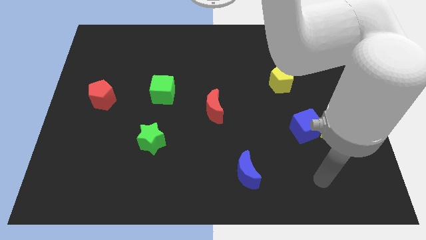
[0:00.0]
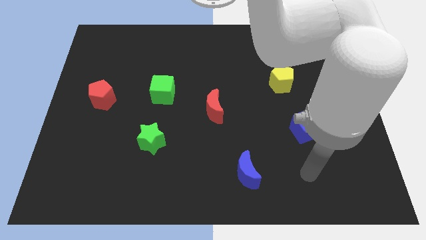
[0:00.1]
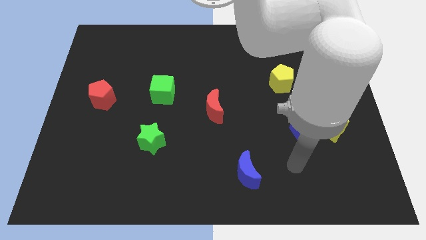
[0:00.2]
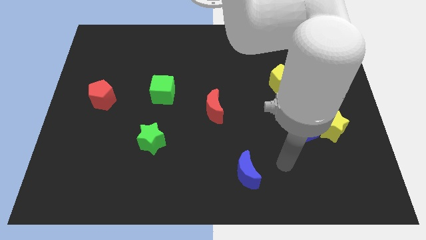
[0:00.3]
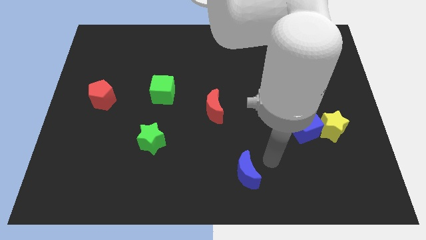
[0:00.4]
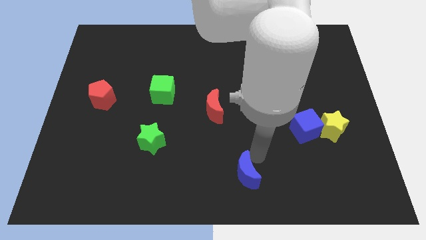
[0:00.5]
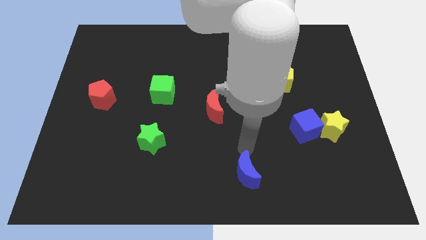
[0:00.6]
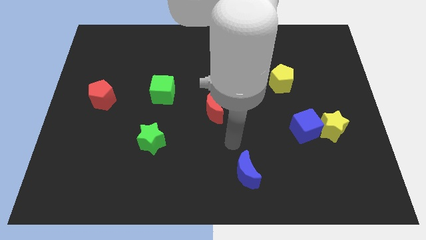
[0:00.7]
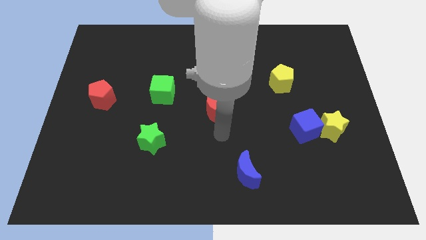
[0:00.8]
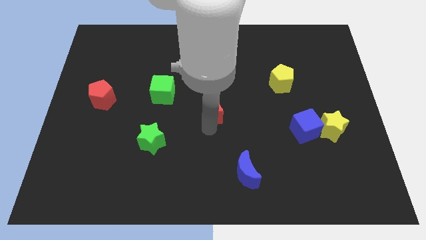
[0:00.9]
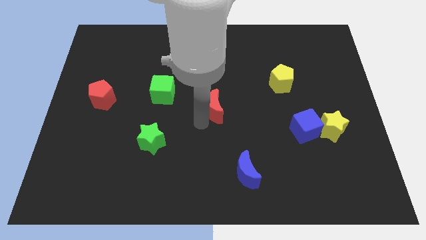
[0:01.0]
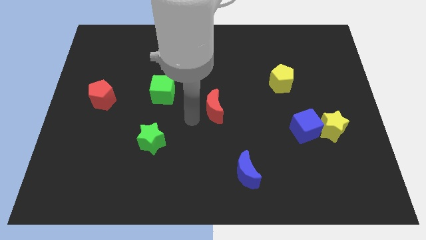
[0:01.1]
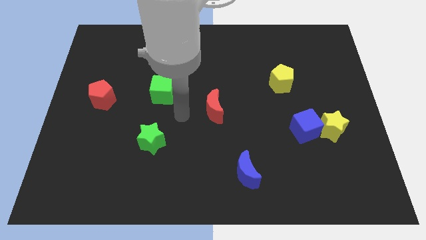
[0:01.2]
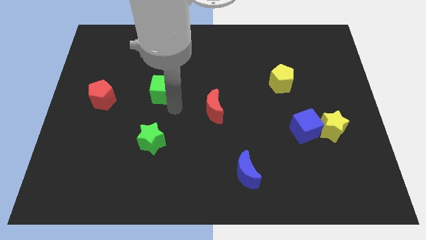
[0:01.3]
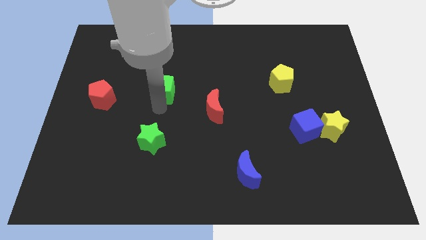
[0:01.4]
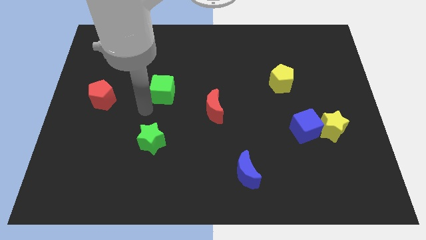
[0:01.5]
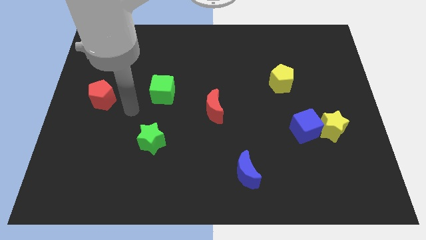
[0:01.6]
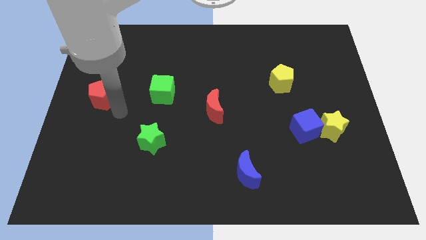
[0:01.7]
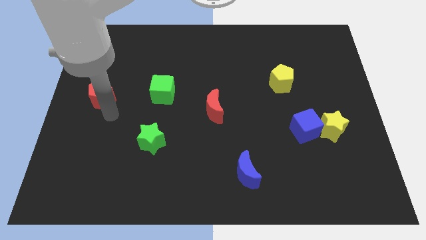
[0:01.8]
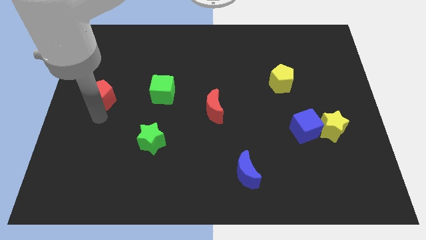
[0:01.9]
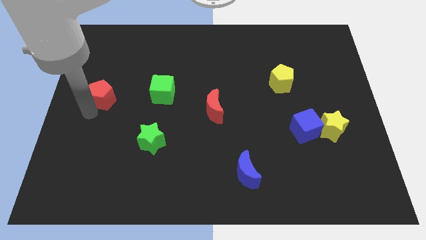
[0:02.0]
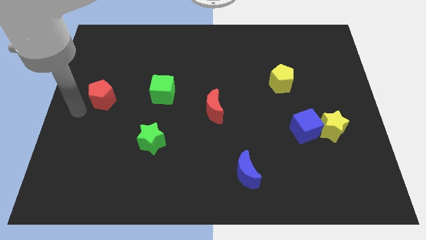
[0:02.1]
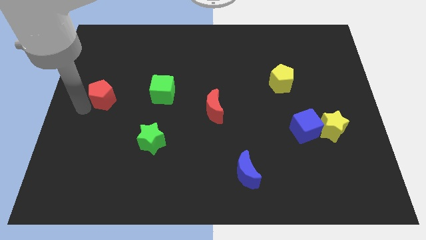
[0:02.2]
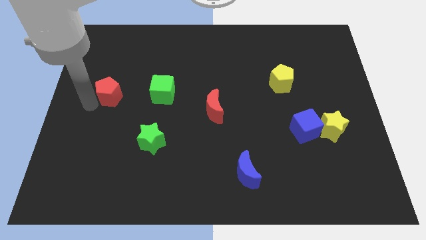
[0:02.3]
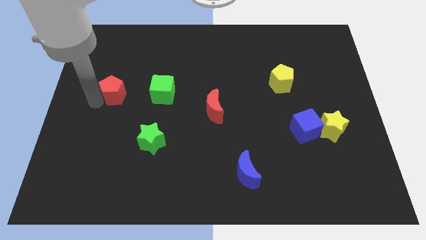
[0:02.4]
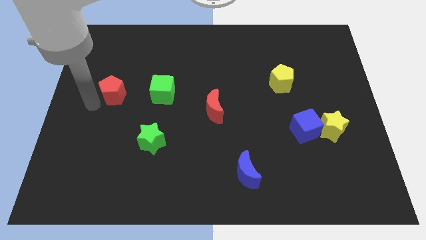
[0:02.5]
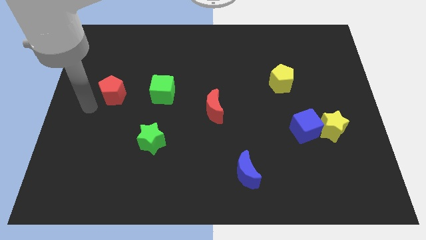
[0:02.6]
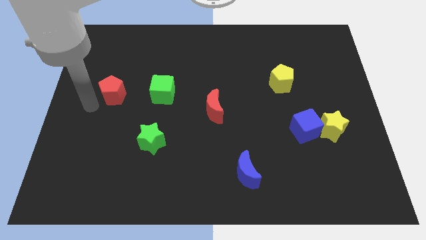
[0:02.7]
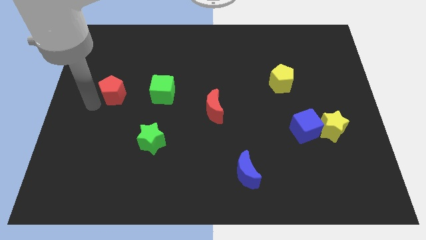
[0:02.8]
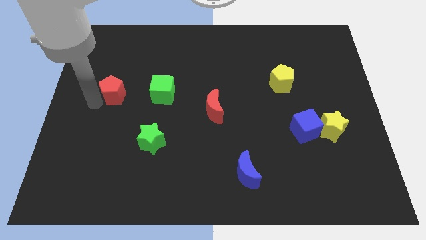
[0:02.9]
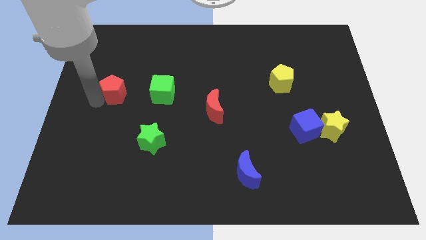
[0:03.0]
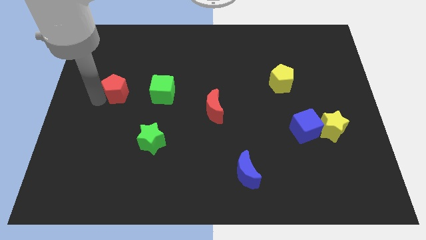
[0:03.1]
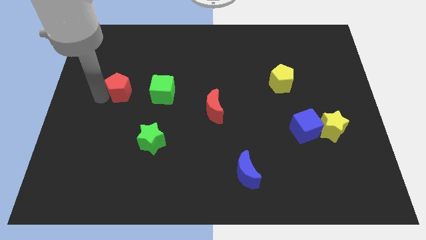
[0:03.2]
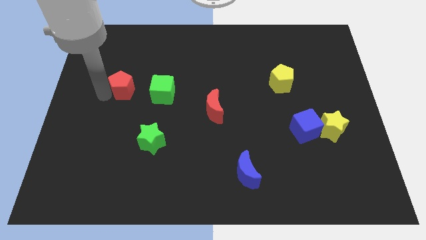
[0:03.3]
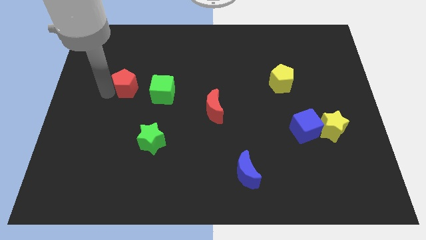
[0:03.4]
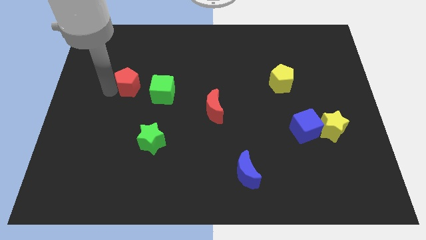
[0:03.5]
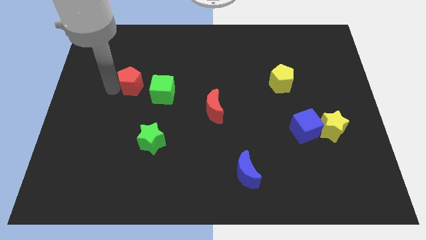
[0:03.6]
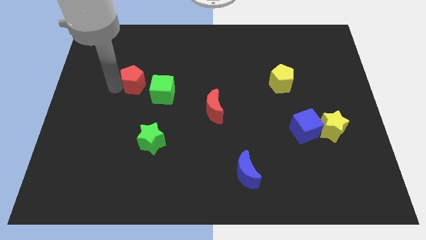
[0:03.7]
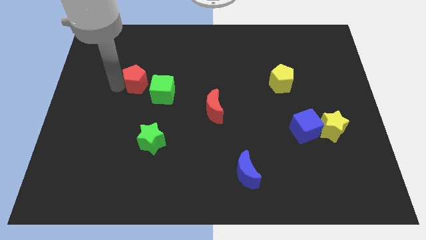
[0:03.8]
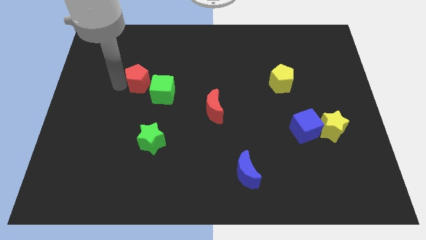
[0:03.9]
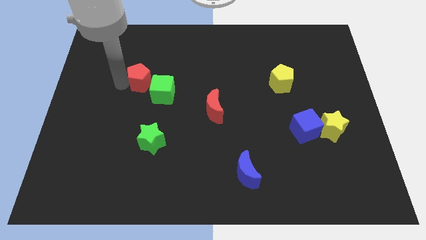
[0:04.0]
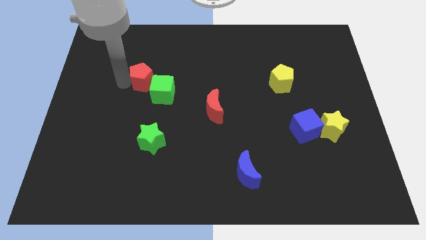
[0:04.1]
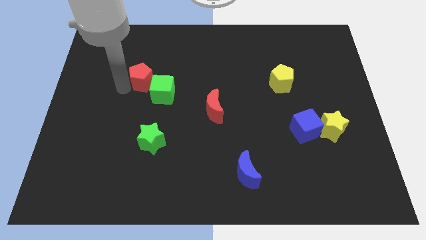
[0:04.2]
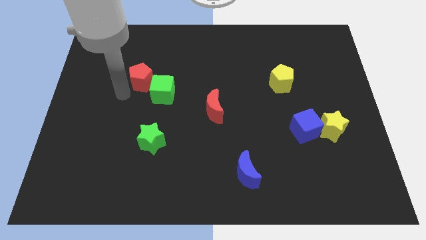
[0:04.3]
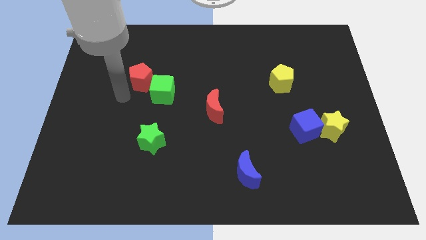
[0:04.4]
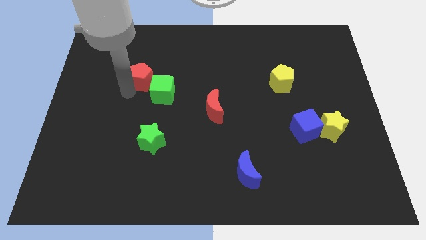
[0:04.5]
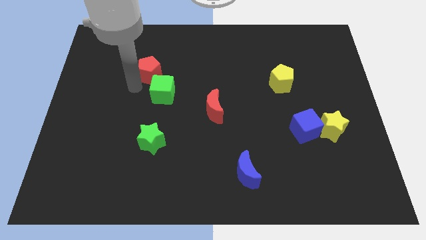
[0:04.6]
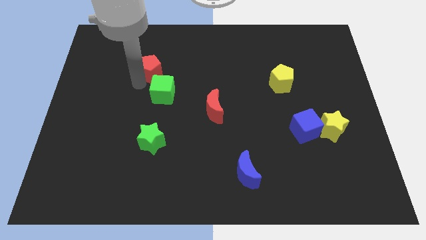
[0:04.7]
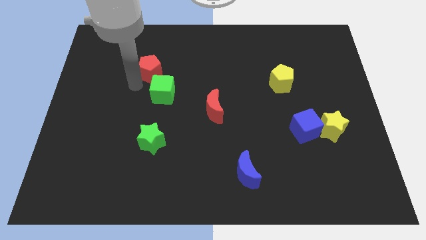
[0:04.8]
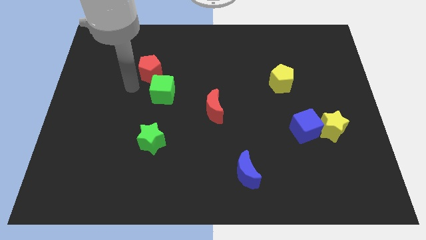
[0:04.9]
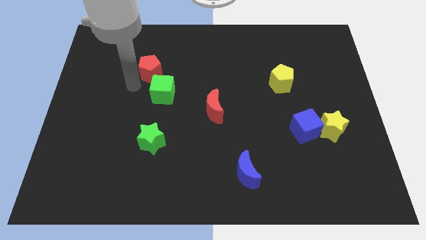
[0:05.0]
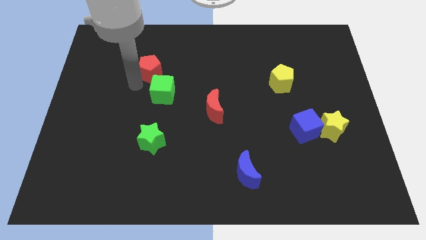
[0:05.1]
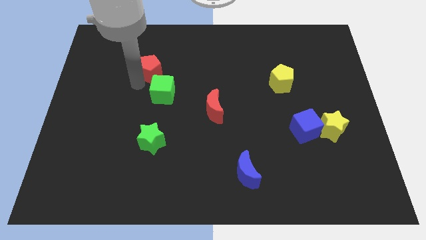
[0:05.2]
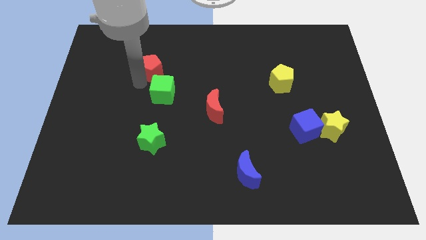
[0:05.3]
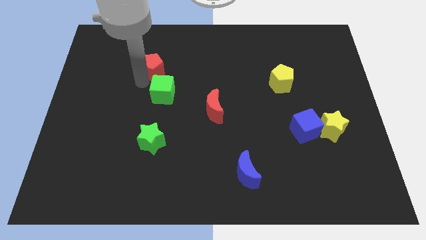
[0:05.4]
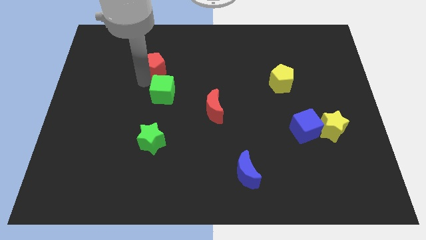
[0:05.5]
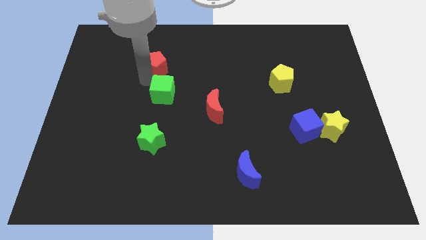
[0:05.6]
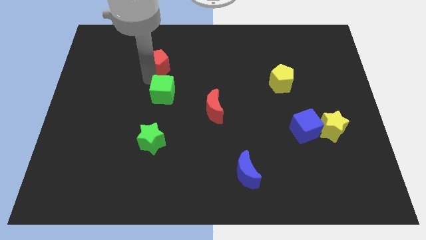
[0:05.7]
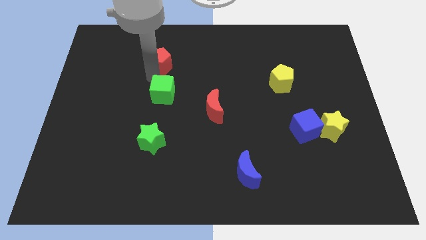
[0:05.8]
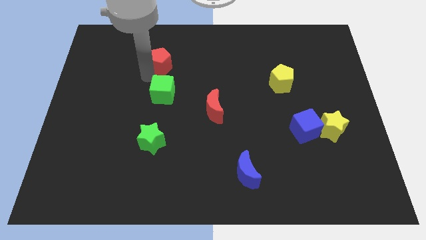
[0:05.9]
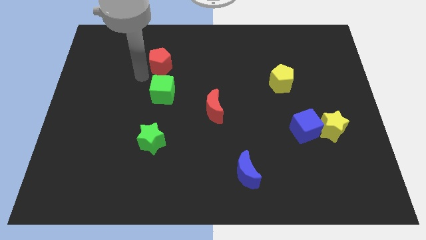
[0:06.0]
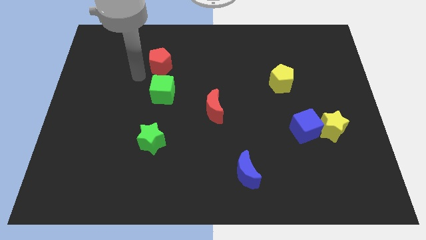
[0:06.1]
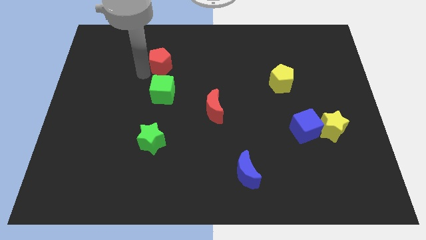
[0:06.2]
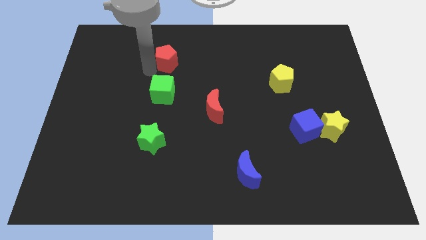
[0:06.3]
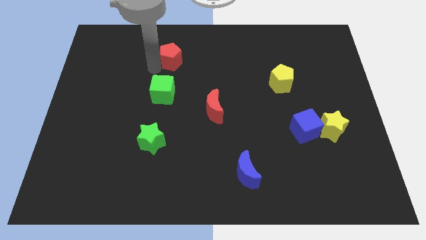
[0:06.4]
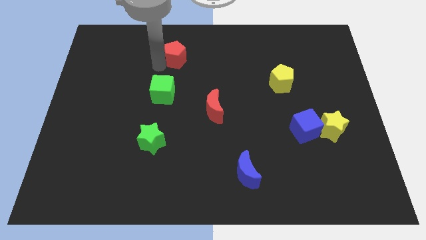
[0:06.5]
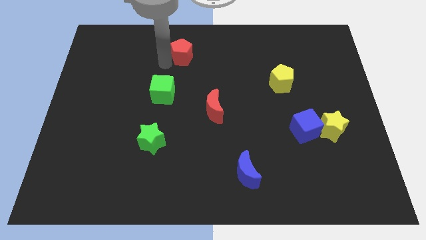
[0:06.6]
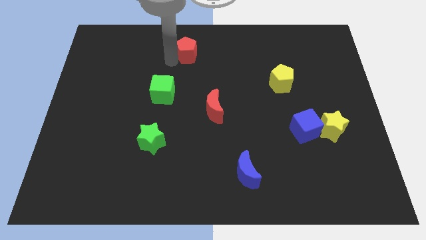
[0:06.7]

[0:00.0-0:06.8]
push the red pentagon to the towards your base
